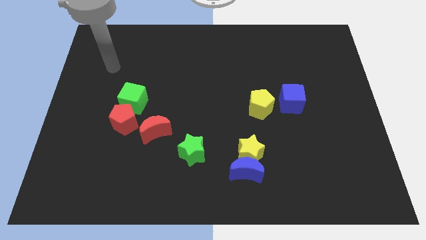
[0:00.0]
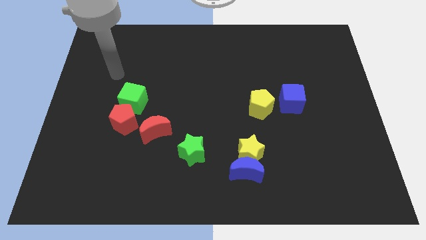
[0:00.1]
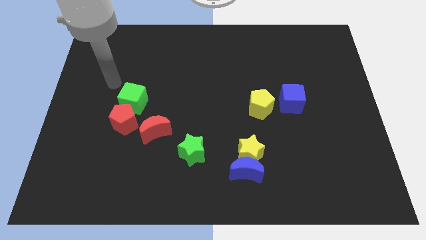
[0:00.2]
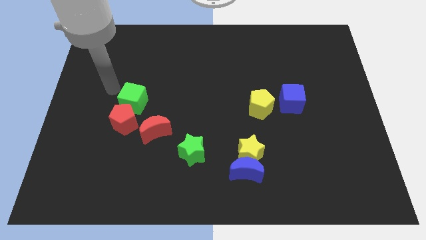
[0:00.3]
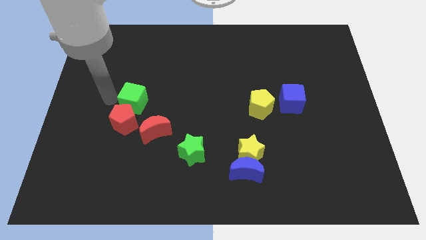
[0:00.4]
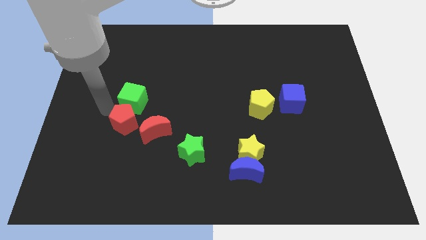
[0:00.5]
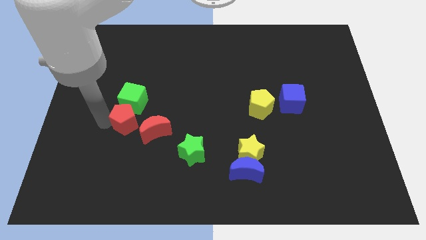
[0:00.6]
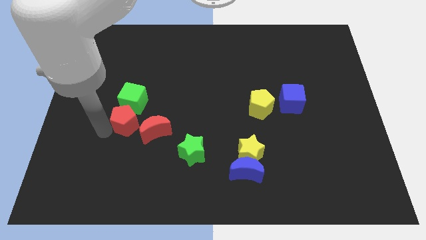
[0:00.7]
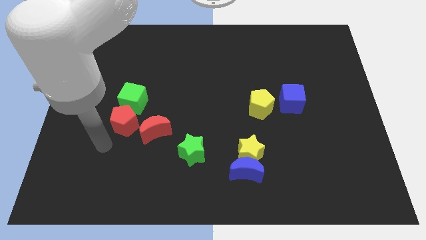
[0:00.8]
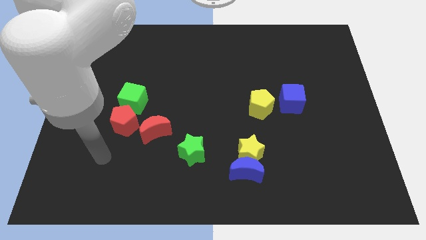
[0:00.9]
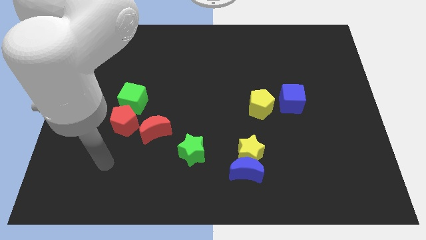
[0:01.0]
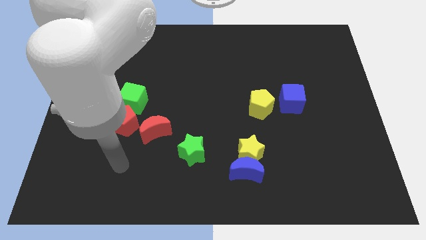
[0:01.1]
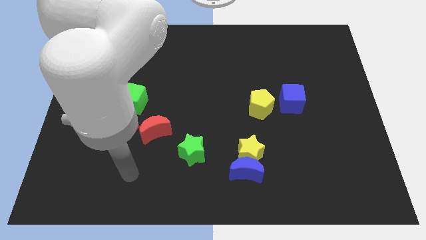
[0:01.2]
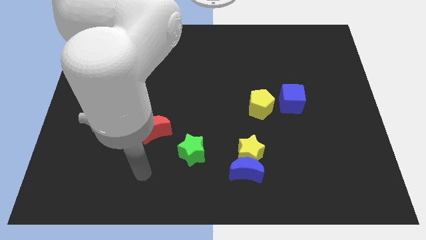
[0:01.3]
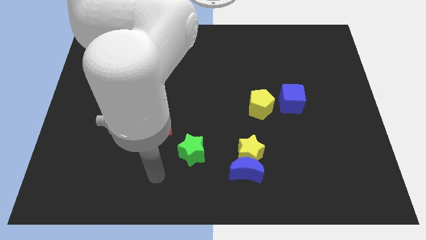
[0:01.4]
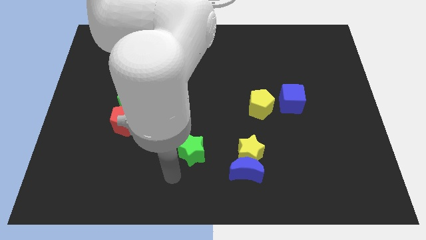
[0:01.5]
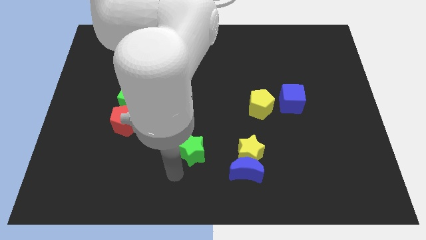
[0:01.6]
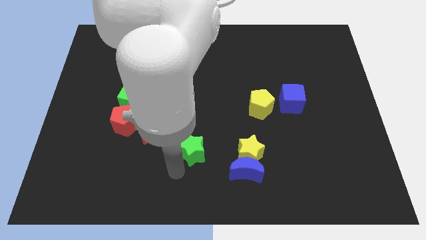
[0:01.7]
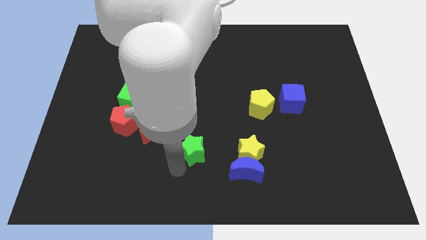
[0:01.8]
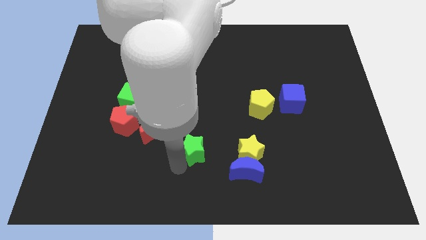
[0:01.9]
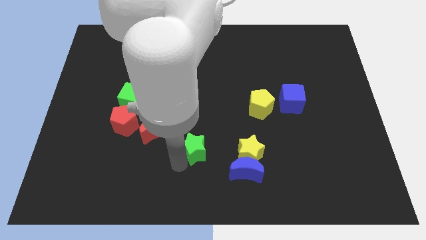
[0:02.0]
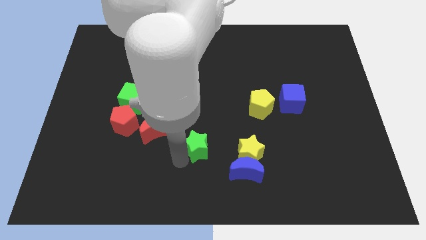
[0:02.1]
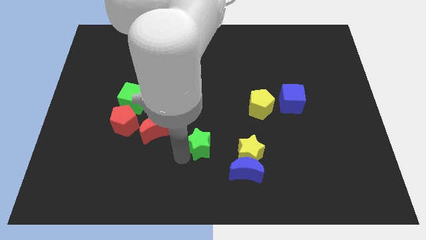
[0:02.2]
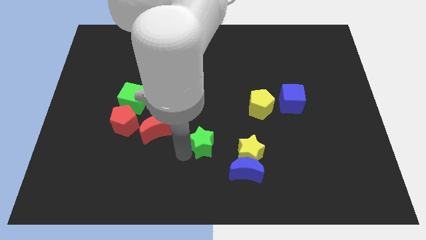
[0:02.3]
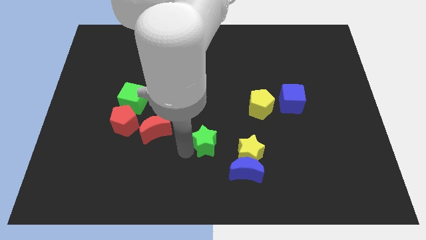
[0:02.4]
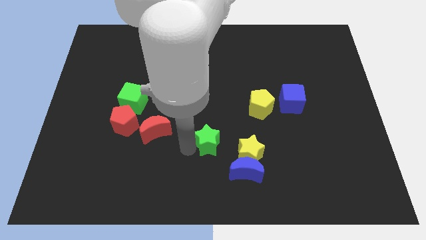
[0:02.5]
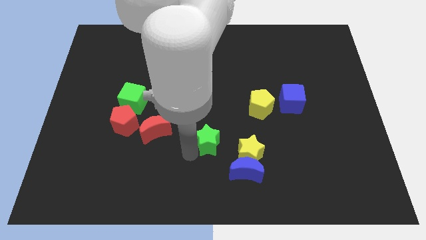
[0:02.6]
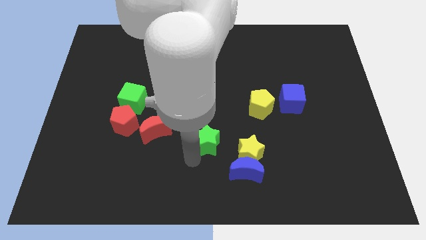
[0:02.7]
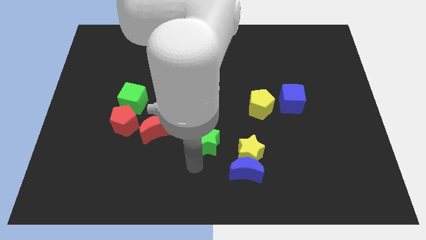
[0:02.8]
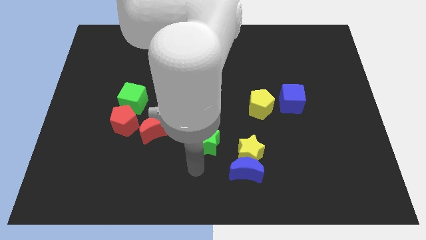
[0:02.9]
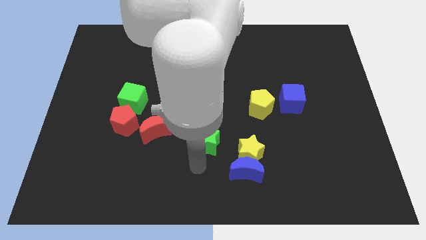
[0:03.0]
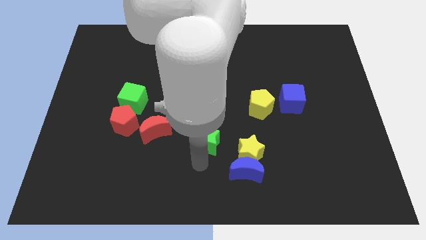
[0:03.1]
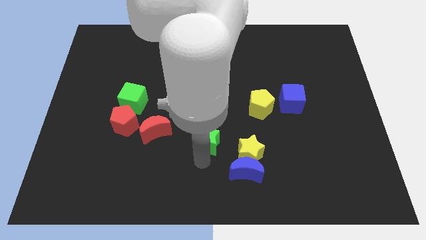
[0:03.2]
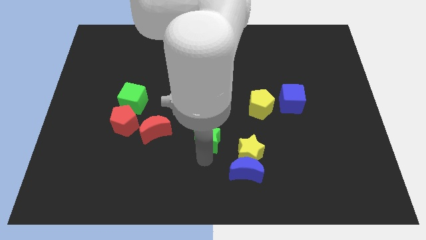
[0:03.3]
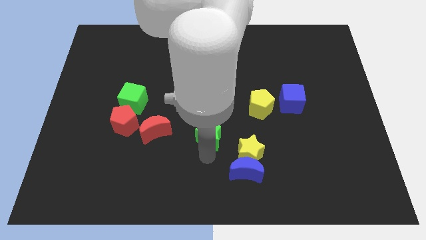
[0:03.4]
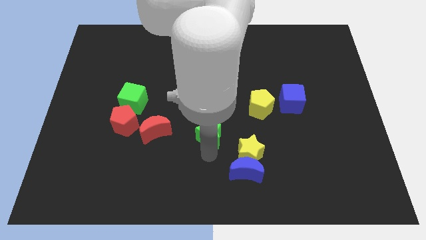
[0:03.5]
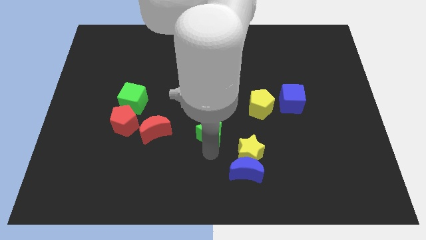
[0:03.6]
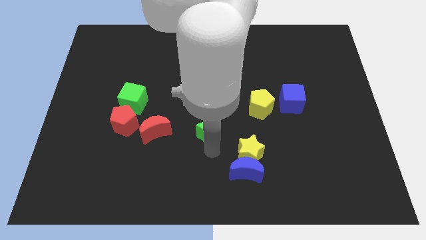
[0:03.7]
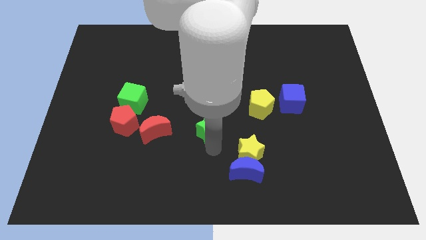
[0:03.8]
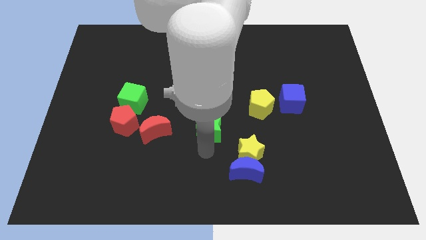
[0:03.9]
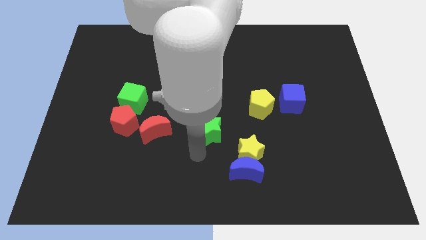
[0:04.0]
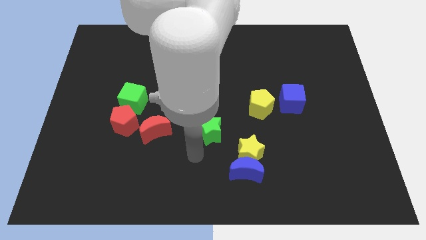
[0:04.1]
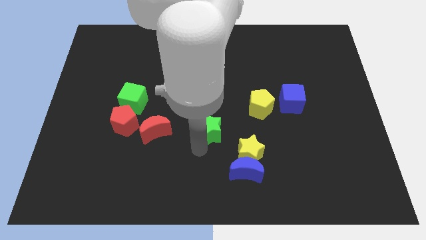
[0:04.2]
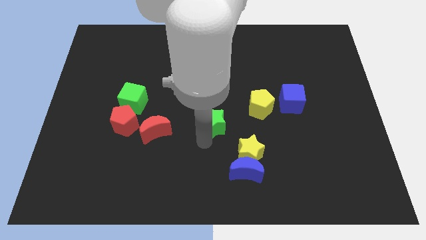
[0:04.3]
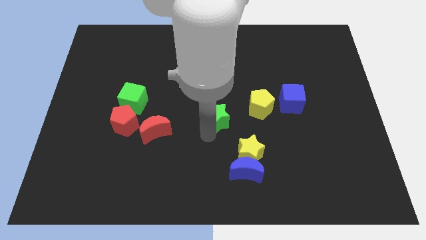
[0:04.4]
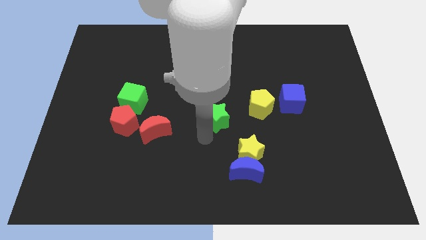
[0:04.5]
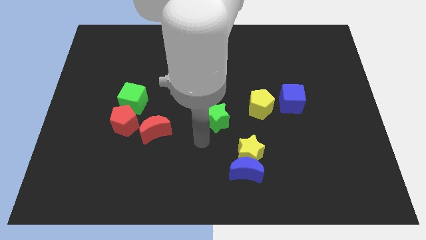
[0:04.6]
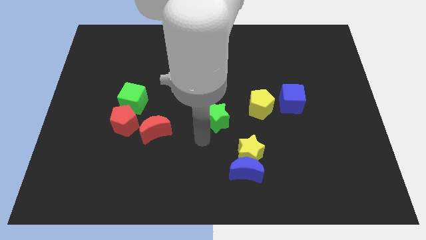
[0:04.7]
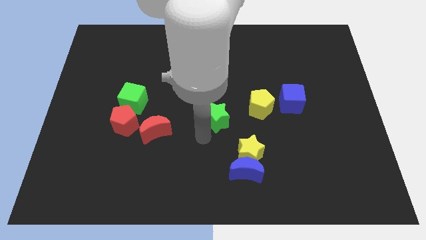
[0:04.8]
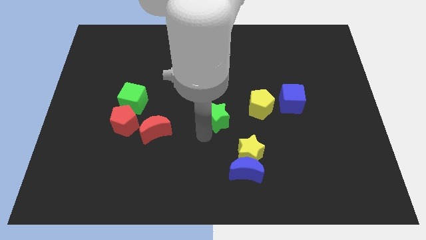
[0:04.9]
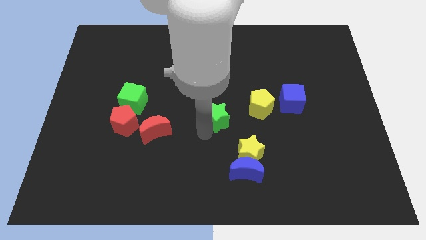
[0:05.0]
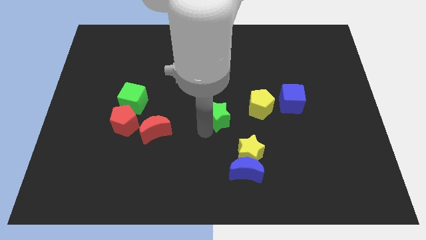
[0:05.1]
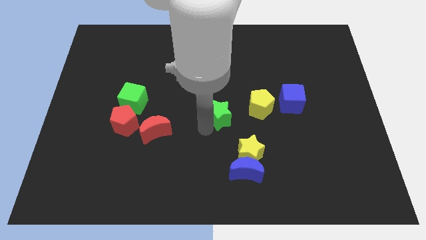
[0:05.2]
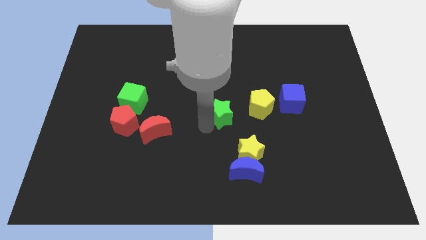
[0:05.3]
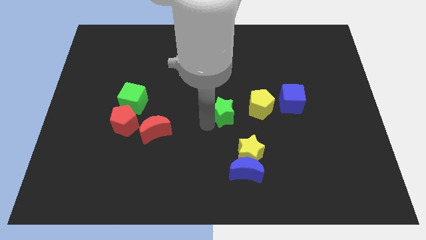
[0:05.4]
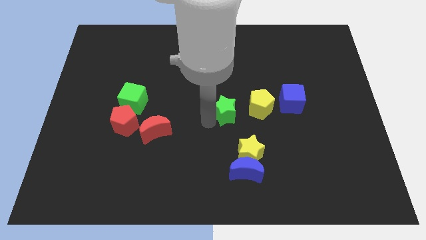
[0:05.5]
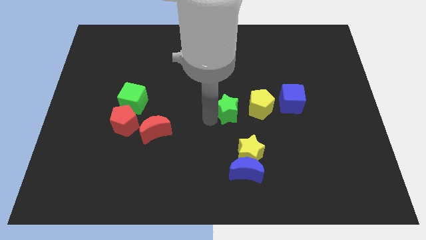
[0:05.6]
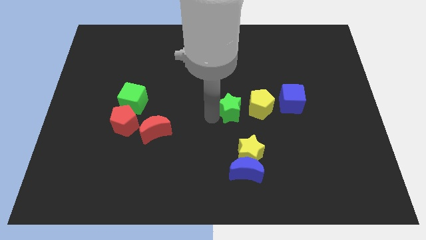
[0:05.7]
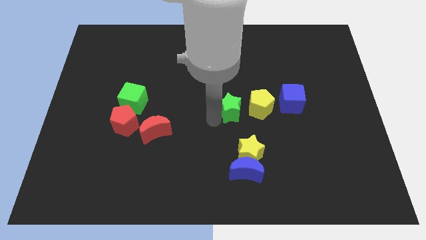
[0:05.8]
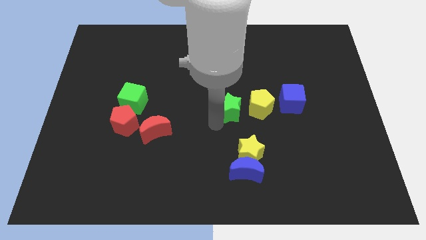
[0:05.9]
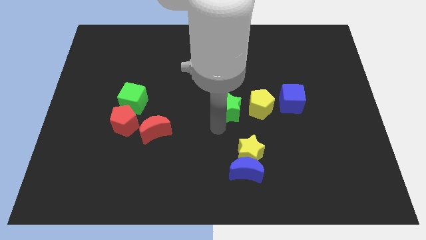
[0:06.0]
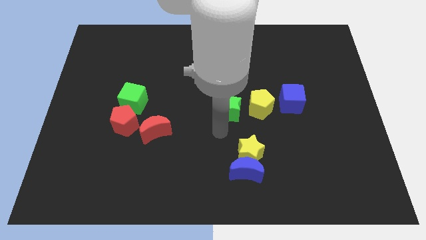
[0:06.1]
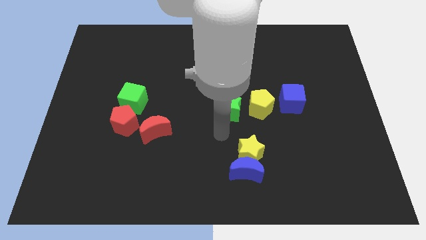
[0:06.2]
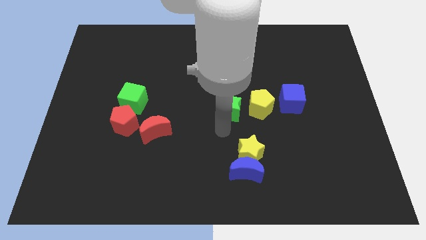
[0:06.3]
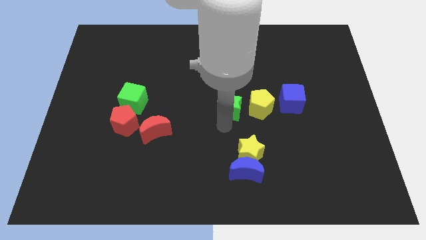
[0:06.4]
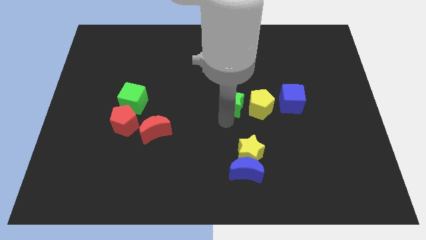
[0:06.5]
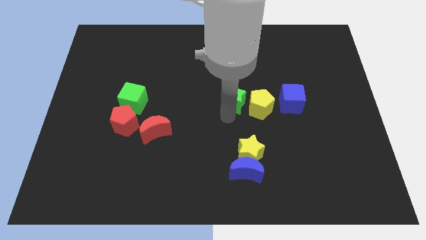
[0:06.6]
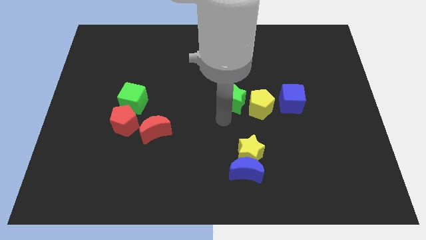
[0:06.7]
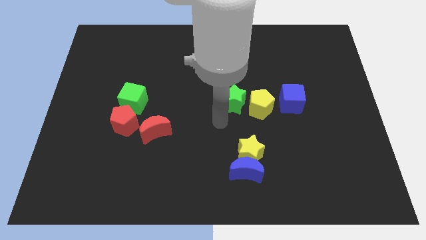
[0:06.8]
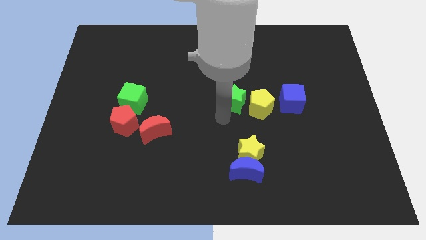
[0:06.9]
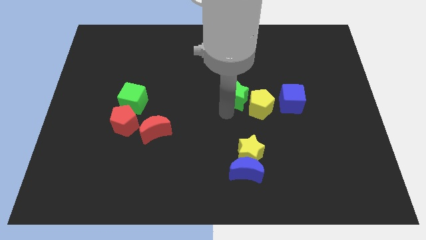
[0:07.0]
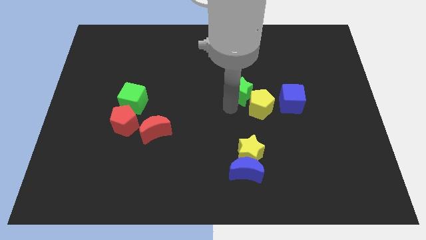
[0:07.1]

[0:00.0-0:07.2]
push the green star to the top of the yellow pentagon
